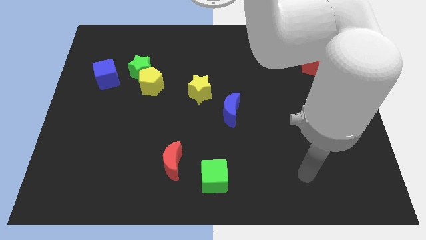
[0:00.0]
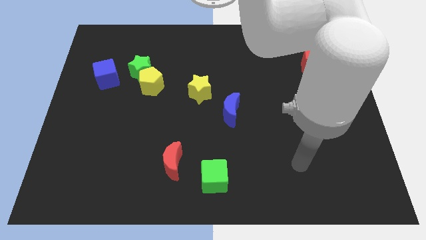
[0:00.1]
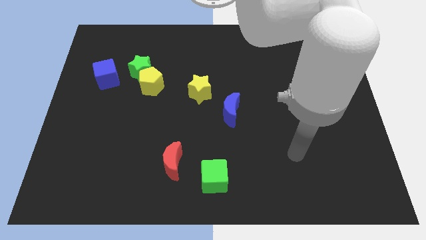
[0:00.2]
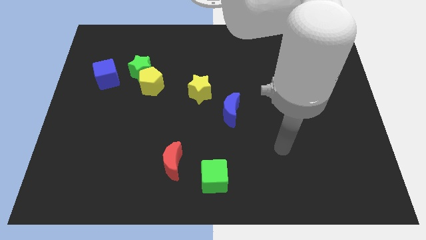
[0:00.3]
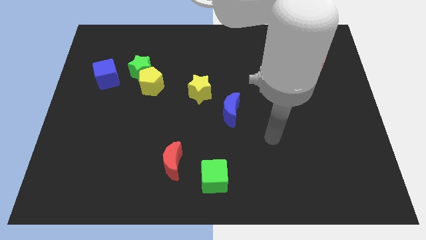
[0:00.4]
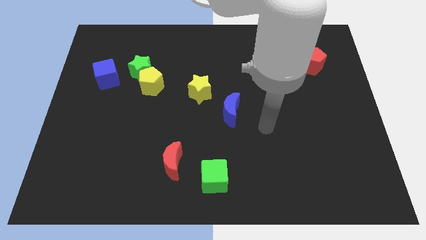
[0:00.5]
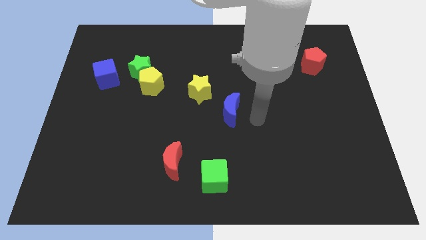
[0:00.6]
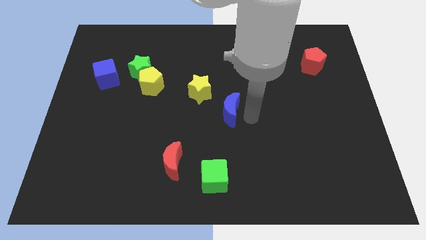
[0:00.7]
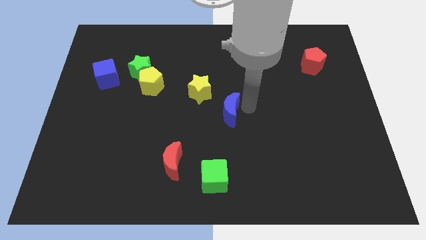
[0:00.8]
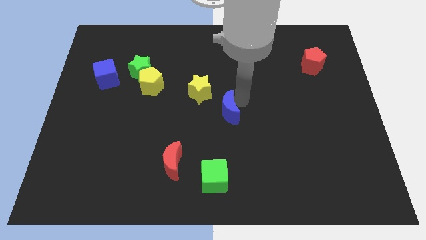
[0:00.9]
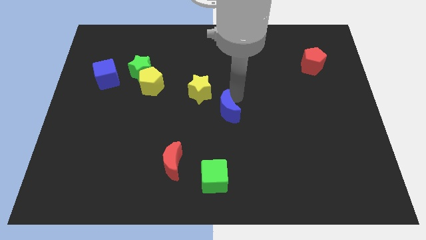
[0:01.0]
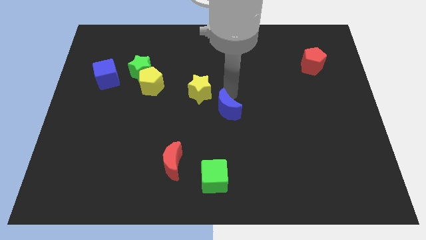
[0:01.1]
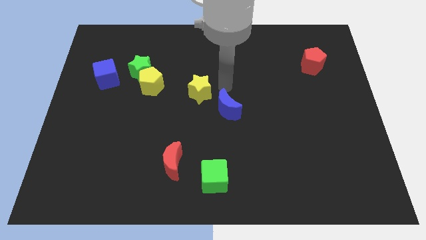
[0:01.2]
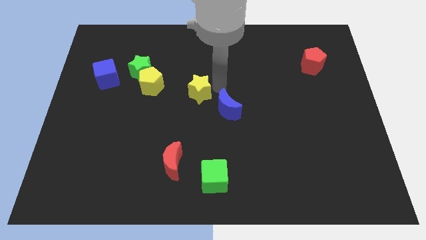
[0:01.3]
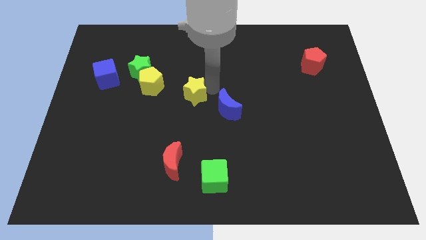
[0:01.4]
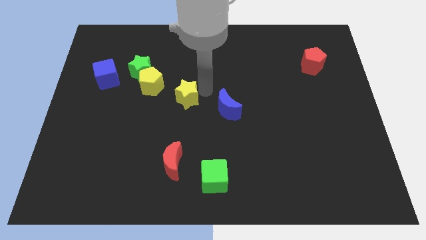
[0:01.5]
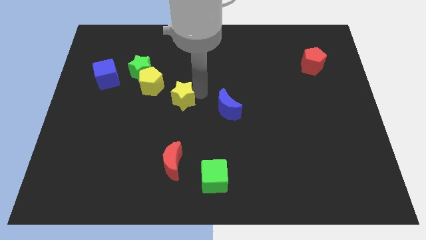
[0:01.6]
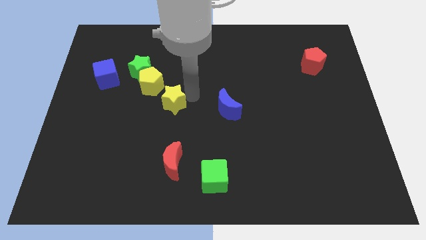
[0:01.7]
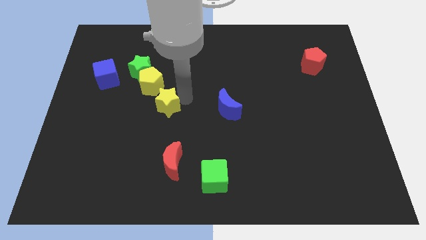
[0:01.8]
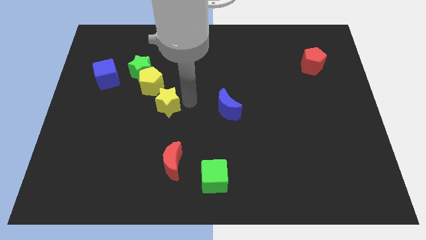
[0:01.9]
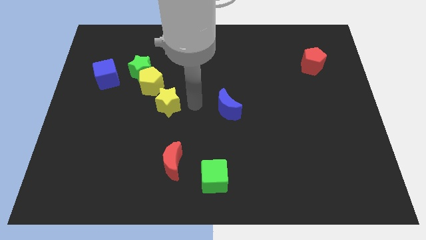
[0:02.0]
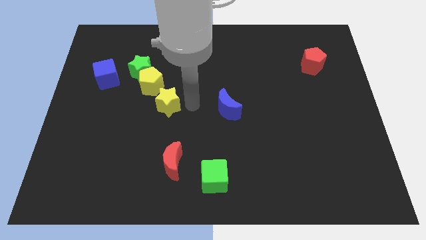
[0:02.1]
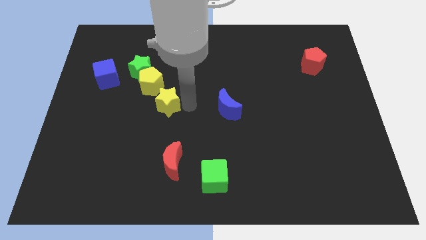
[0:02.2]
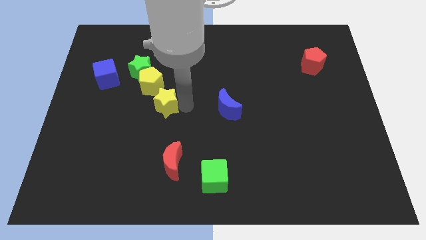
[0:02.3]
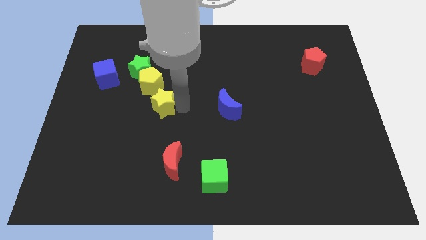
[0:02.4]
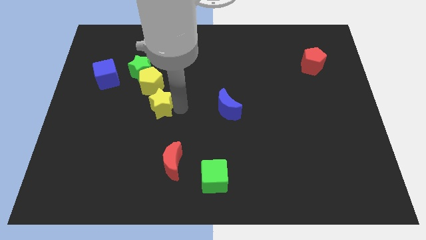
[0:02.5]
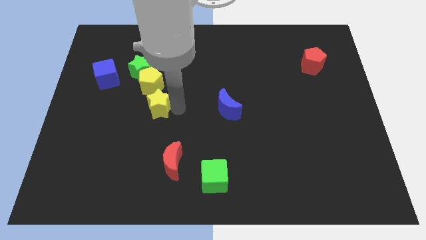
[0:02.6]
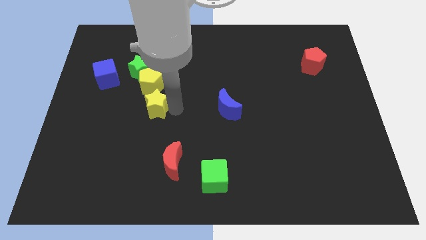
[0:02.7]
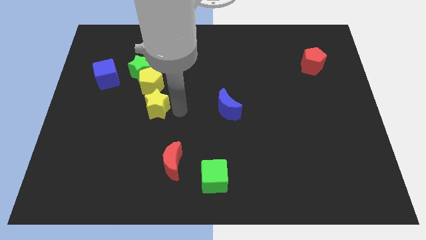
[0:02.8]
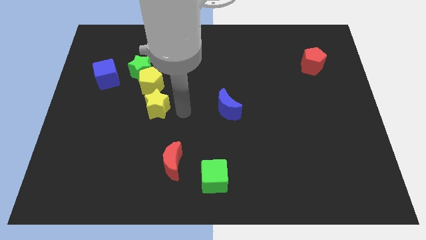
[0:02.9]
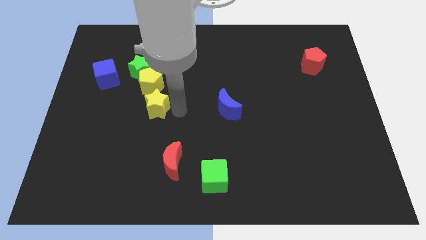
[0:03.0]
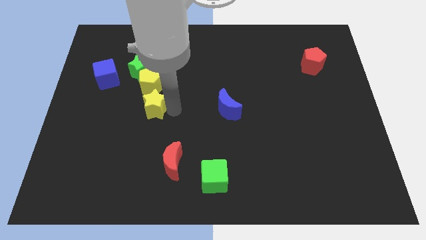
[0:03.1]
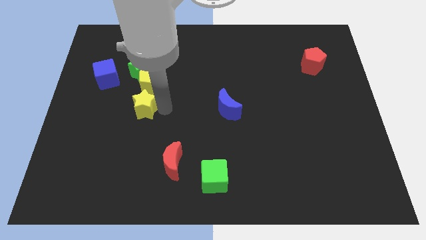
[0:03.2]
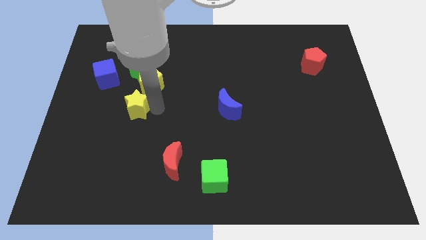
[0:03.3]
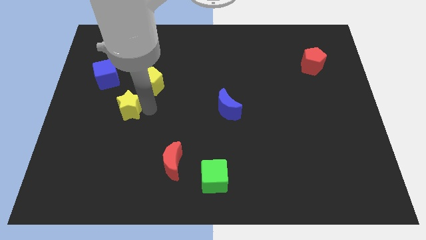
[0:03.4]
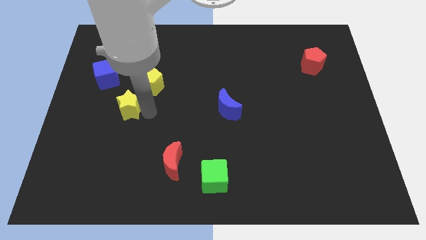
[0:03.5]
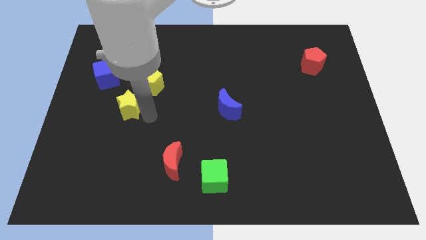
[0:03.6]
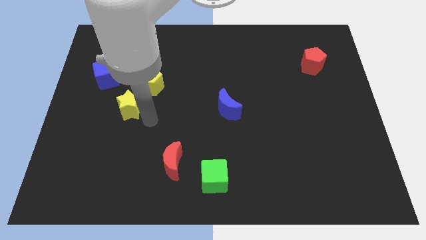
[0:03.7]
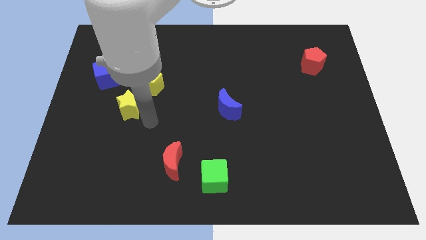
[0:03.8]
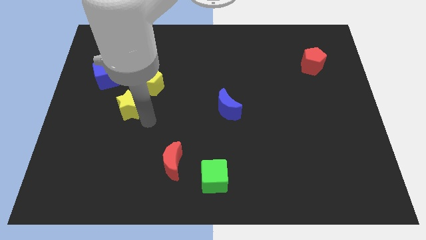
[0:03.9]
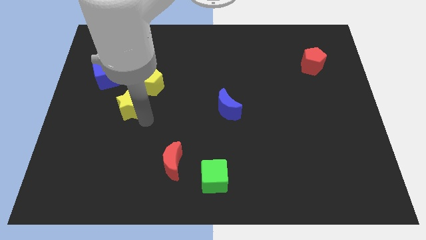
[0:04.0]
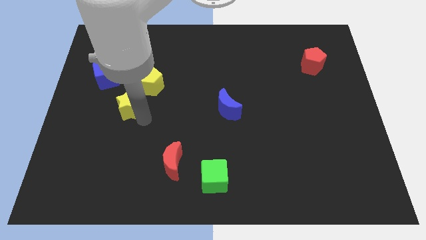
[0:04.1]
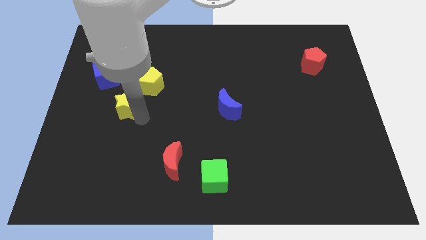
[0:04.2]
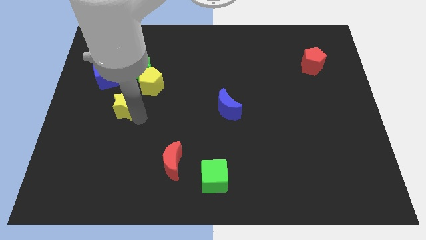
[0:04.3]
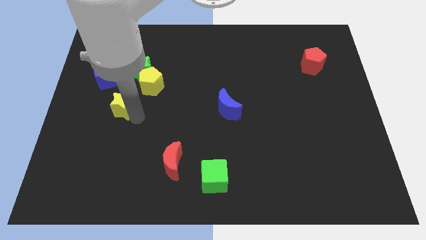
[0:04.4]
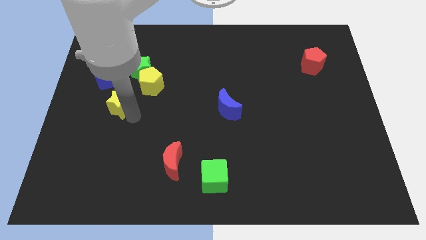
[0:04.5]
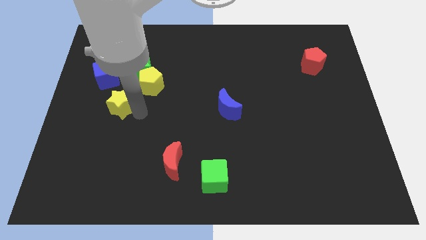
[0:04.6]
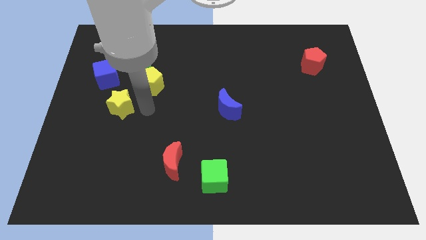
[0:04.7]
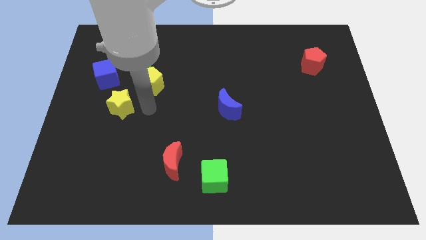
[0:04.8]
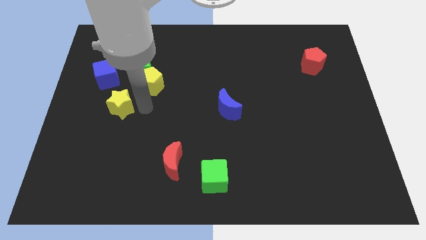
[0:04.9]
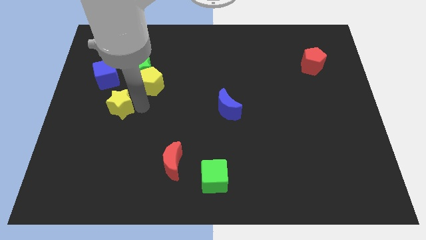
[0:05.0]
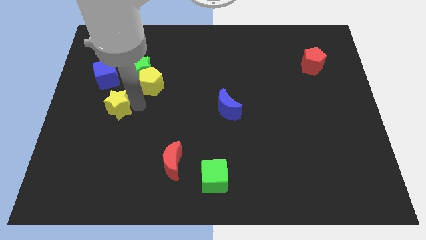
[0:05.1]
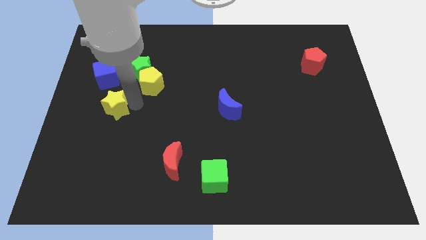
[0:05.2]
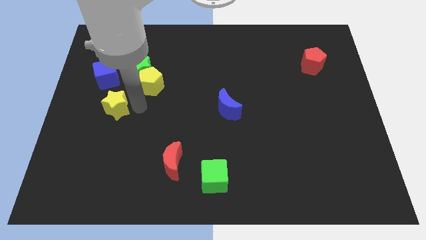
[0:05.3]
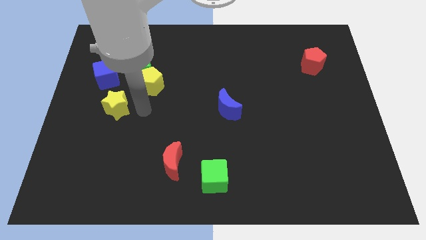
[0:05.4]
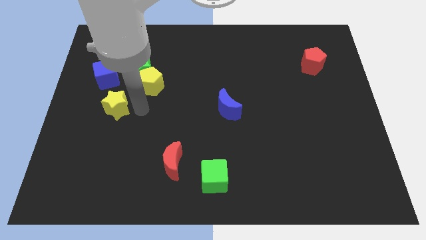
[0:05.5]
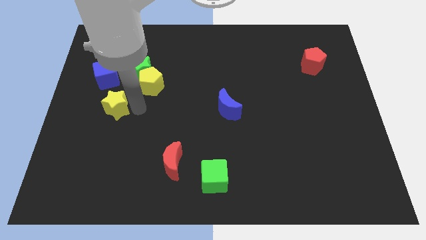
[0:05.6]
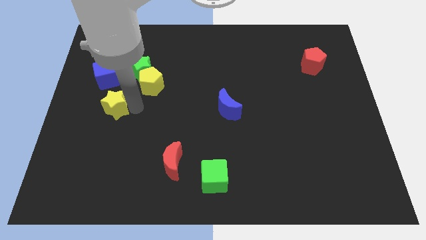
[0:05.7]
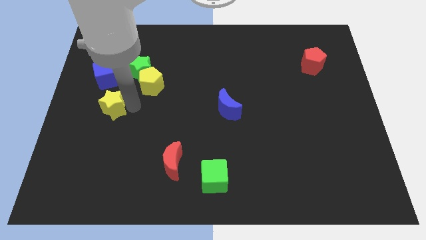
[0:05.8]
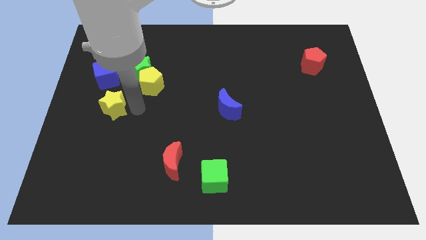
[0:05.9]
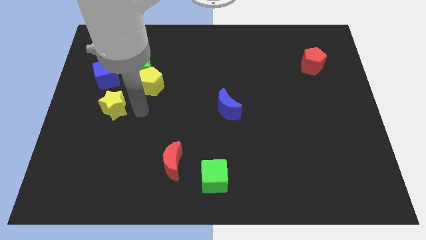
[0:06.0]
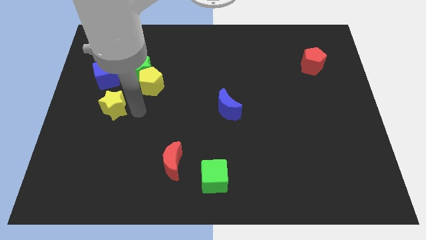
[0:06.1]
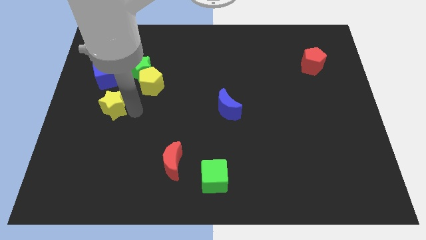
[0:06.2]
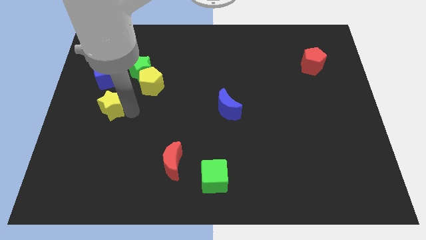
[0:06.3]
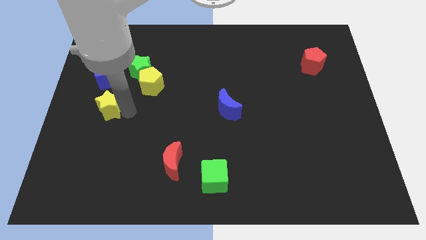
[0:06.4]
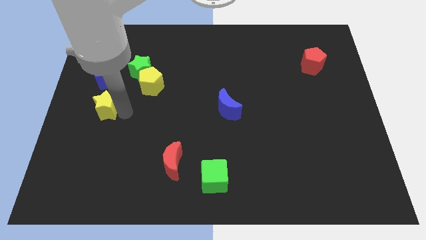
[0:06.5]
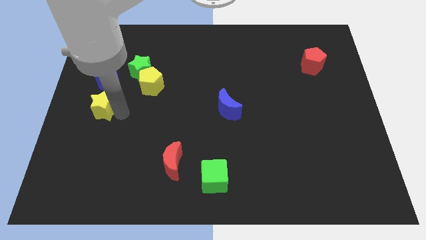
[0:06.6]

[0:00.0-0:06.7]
push the yellow star to the center left
